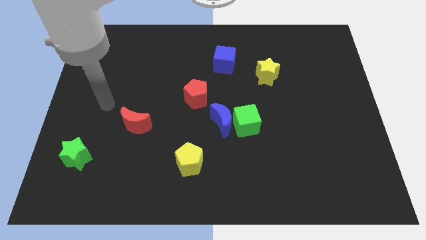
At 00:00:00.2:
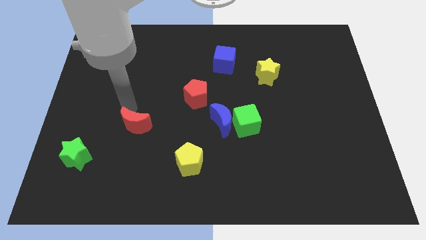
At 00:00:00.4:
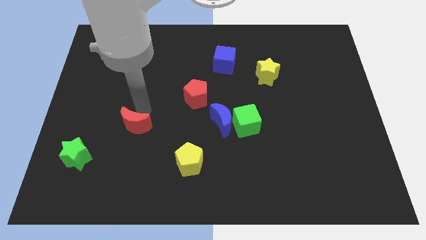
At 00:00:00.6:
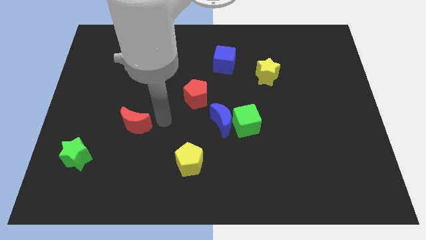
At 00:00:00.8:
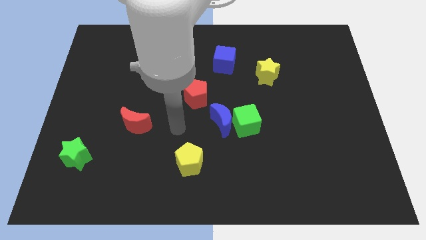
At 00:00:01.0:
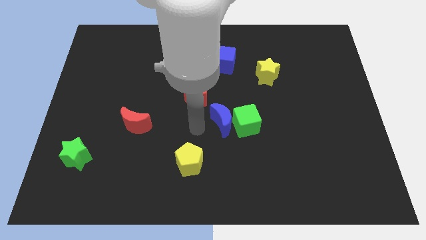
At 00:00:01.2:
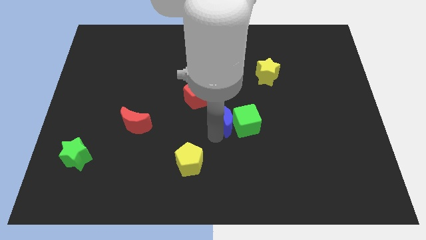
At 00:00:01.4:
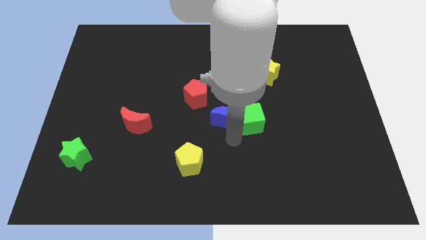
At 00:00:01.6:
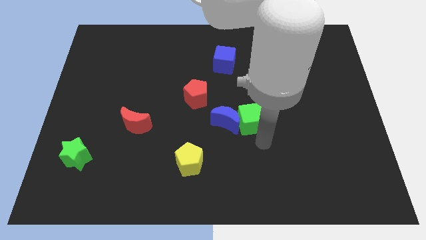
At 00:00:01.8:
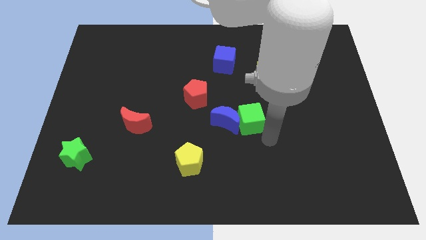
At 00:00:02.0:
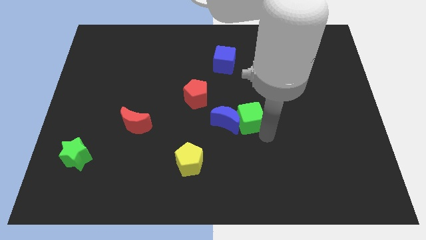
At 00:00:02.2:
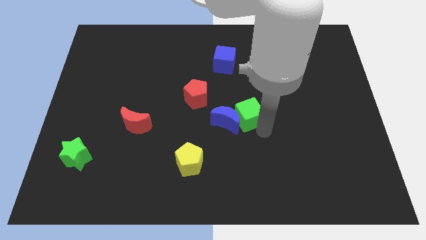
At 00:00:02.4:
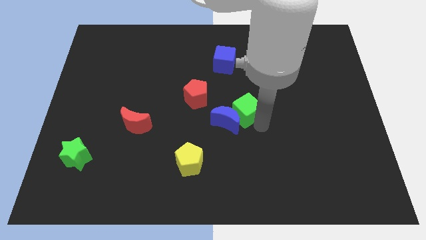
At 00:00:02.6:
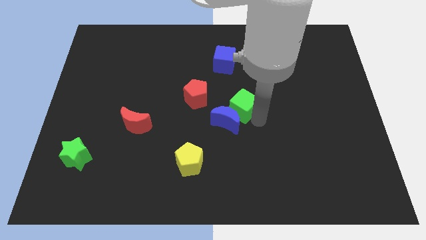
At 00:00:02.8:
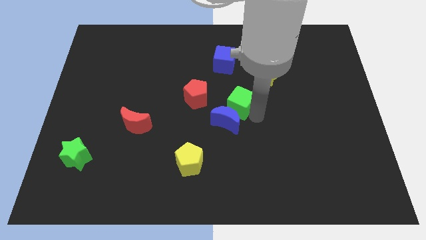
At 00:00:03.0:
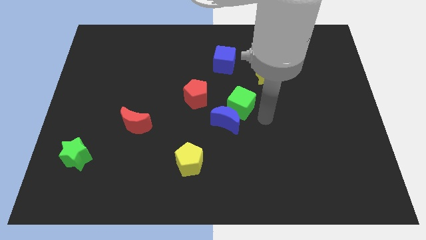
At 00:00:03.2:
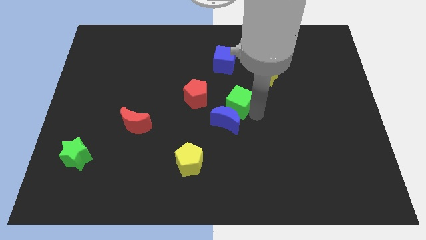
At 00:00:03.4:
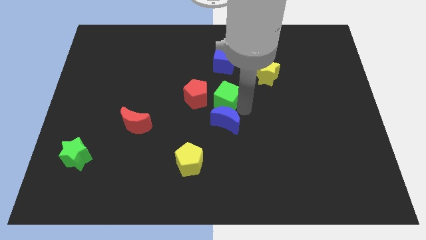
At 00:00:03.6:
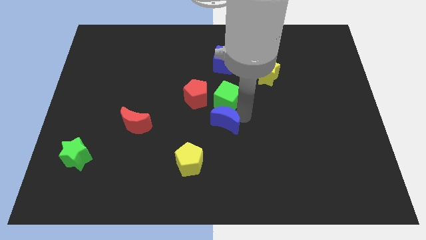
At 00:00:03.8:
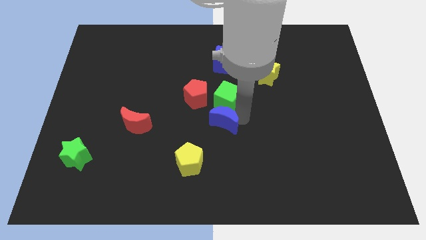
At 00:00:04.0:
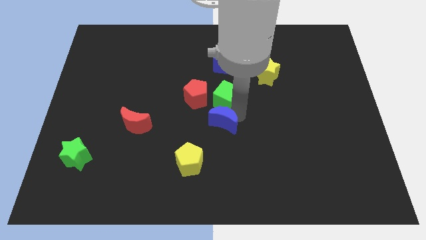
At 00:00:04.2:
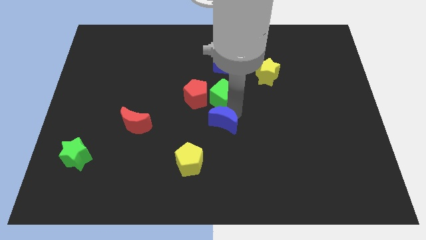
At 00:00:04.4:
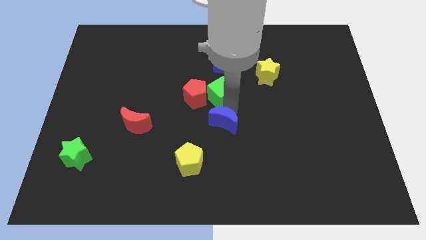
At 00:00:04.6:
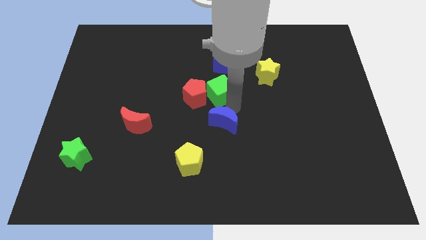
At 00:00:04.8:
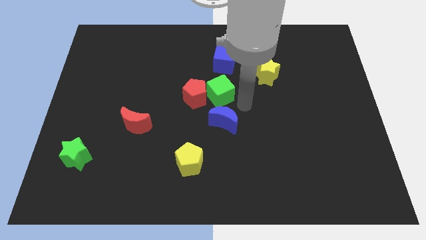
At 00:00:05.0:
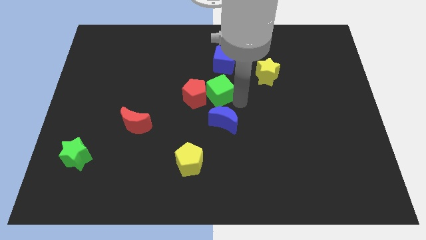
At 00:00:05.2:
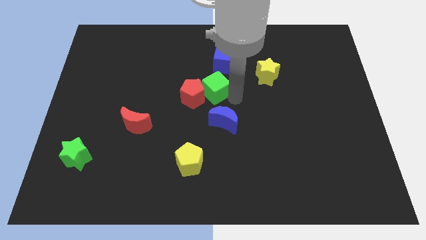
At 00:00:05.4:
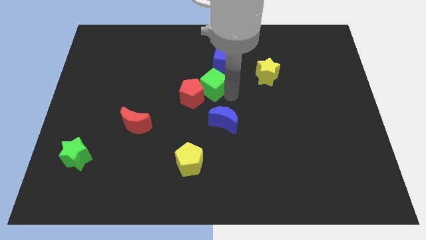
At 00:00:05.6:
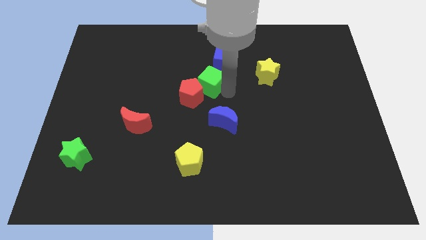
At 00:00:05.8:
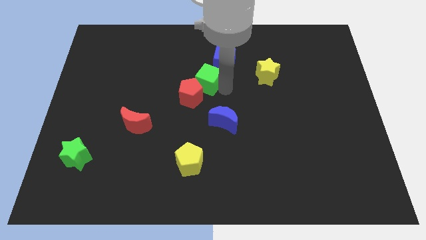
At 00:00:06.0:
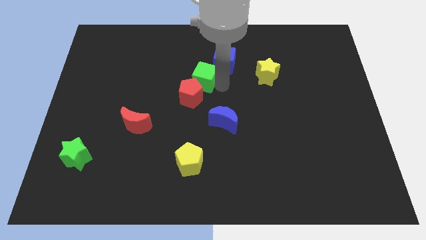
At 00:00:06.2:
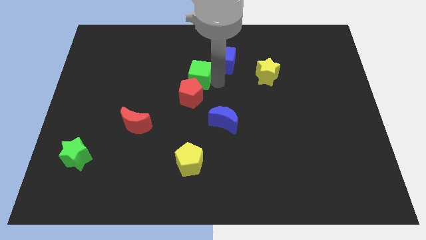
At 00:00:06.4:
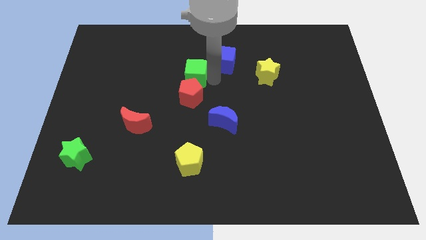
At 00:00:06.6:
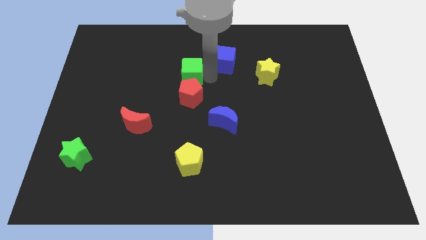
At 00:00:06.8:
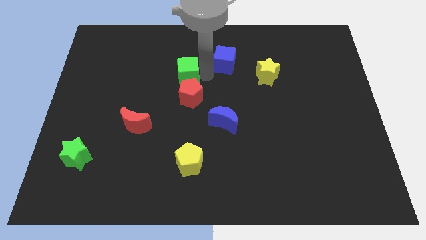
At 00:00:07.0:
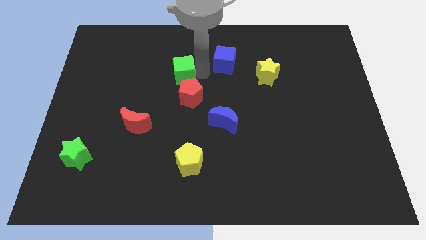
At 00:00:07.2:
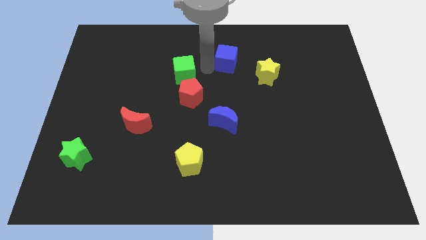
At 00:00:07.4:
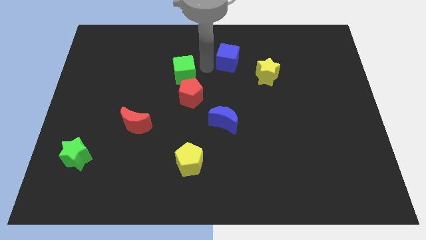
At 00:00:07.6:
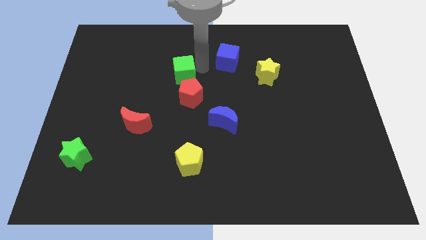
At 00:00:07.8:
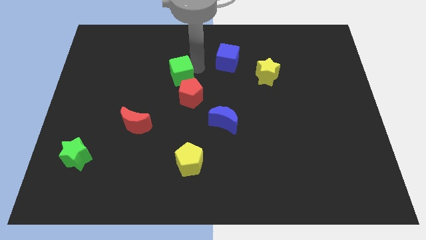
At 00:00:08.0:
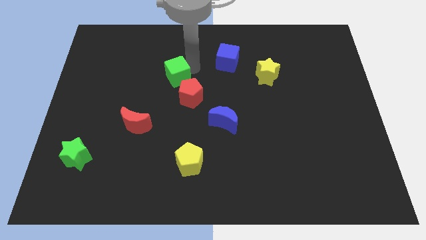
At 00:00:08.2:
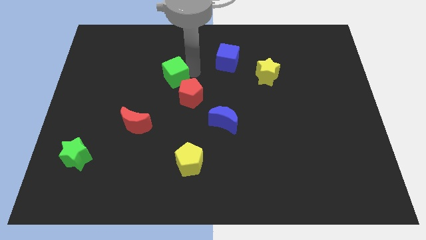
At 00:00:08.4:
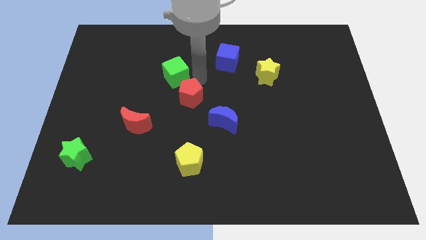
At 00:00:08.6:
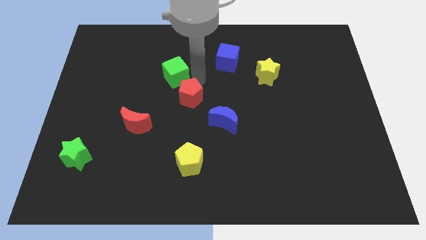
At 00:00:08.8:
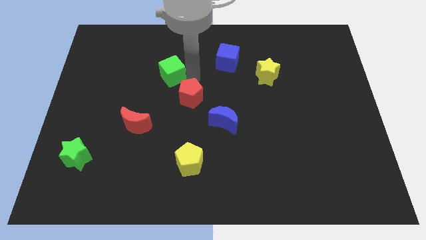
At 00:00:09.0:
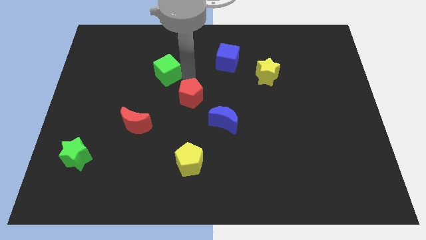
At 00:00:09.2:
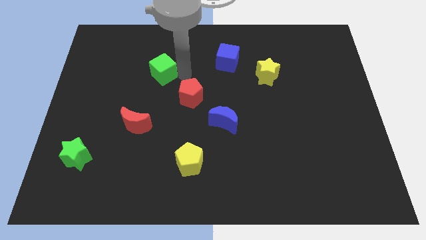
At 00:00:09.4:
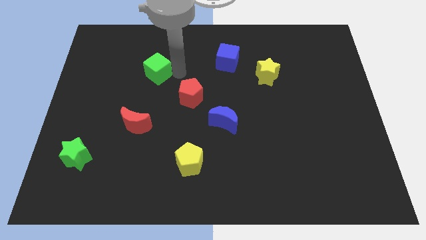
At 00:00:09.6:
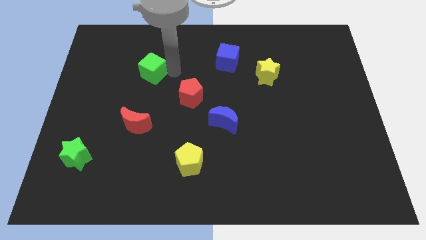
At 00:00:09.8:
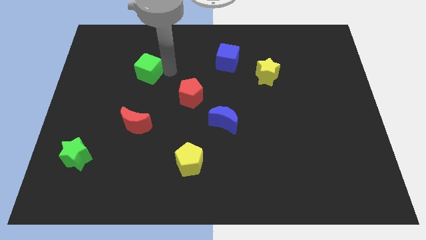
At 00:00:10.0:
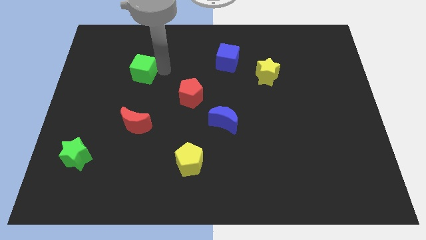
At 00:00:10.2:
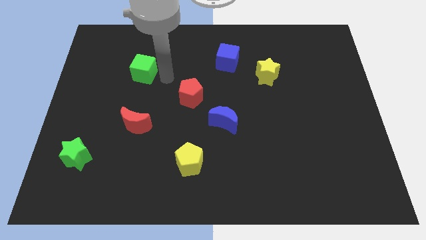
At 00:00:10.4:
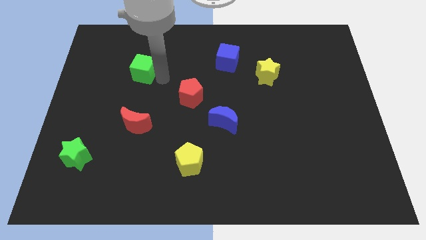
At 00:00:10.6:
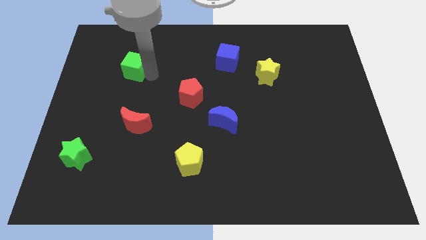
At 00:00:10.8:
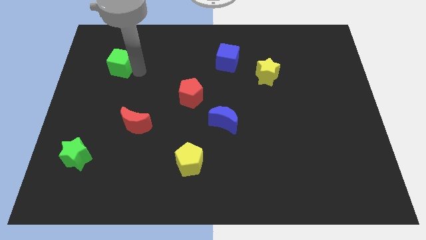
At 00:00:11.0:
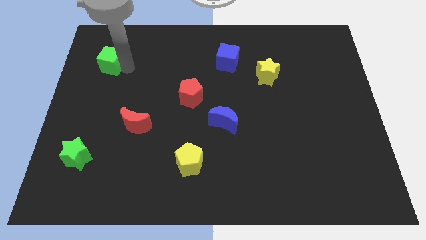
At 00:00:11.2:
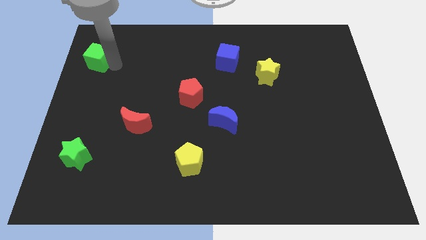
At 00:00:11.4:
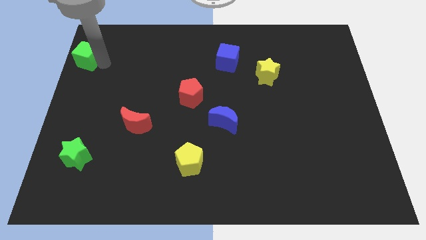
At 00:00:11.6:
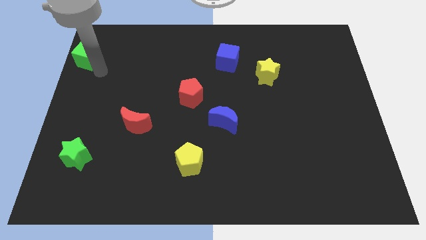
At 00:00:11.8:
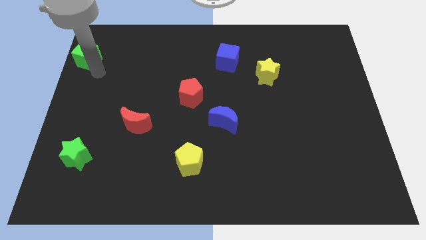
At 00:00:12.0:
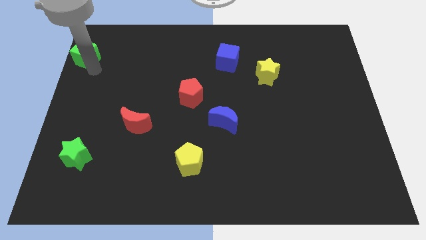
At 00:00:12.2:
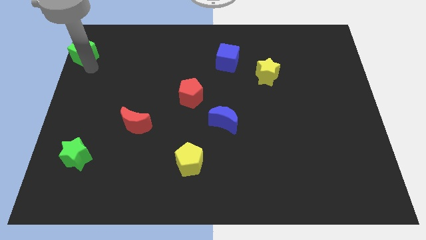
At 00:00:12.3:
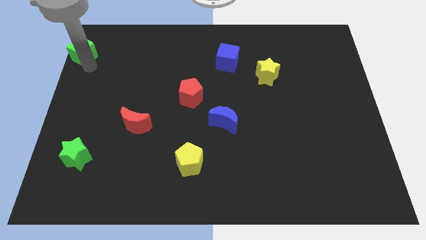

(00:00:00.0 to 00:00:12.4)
put the green cube to the upper left corner

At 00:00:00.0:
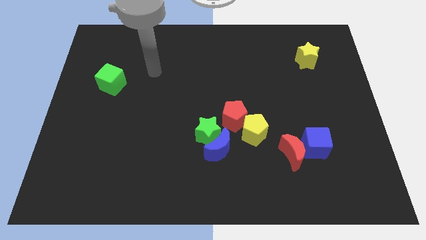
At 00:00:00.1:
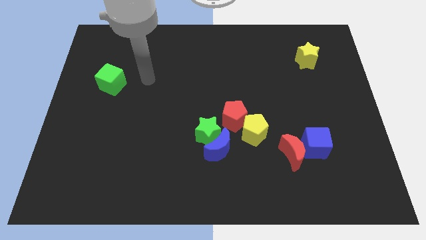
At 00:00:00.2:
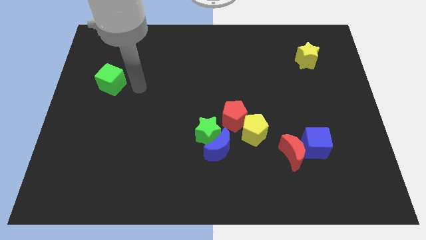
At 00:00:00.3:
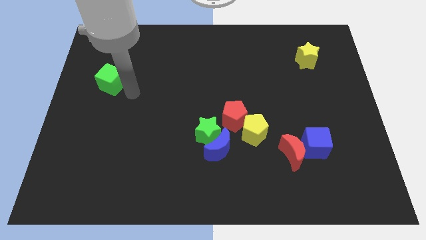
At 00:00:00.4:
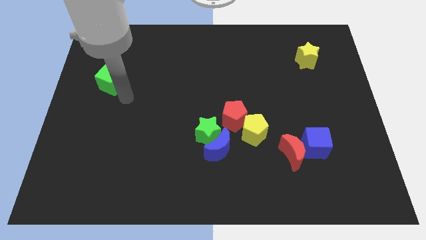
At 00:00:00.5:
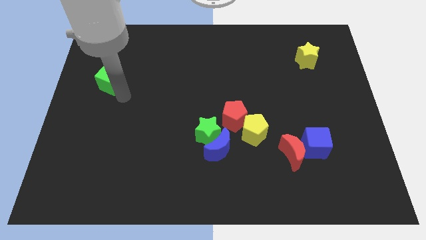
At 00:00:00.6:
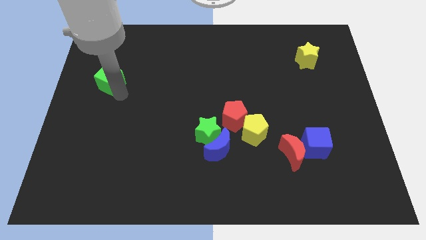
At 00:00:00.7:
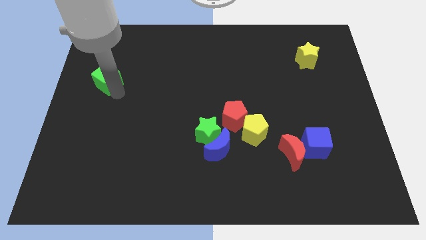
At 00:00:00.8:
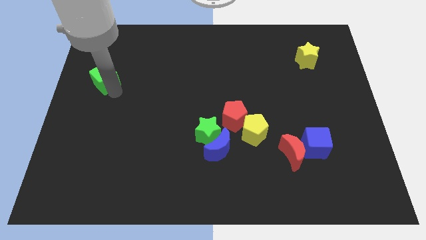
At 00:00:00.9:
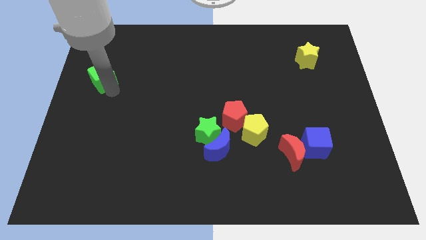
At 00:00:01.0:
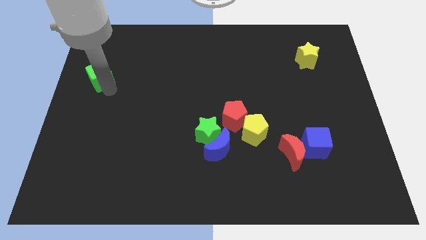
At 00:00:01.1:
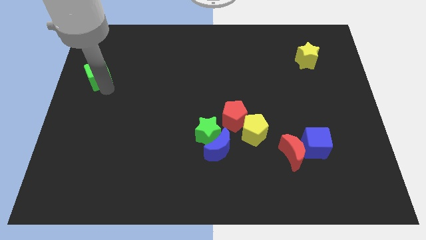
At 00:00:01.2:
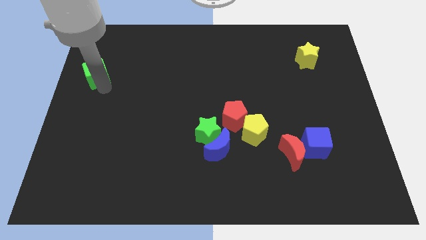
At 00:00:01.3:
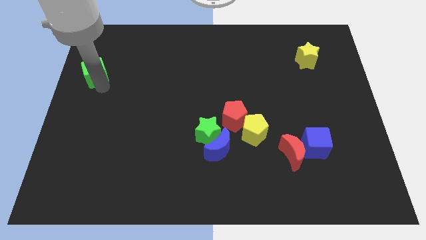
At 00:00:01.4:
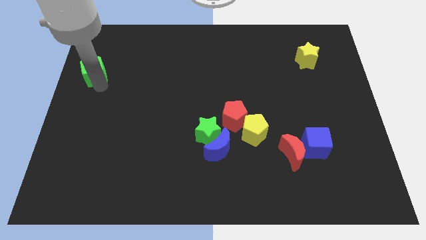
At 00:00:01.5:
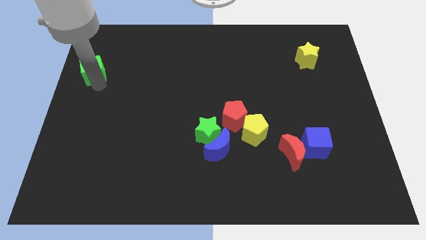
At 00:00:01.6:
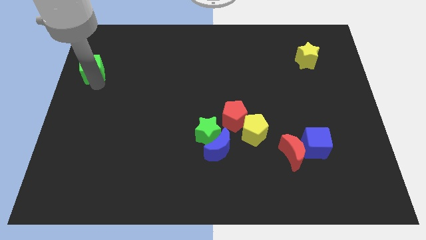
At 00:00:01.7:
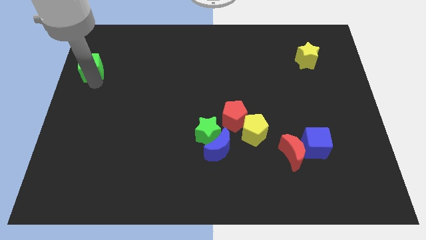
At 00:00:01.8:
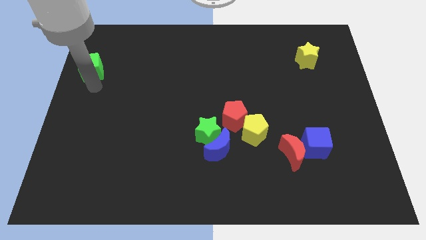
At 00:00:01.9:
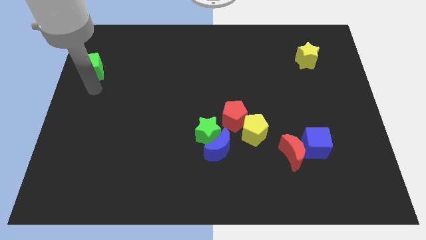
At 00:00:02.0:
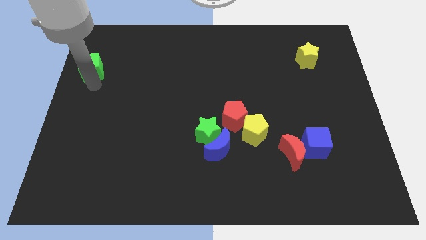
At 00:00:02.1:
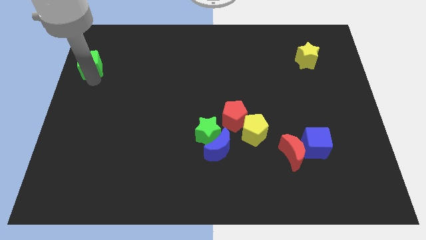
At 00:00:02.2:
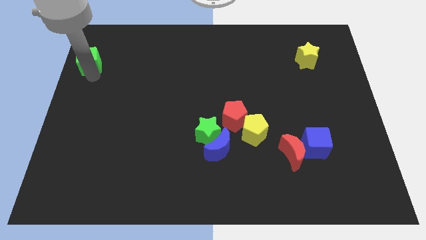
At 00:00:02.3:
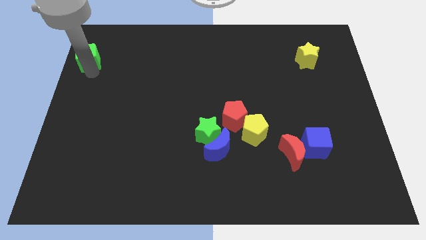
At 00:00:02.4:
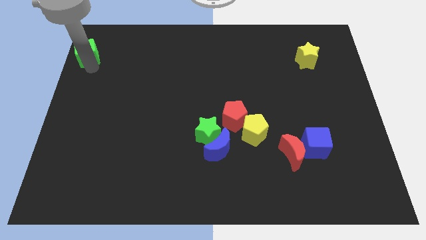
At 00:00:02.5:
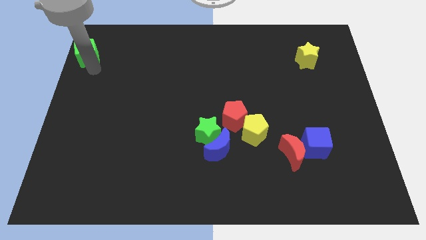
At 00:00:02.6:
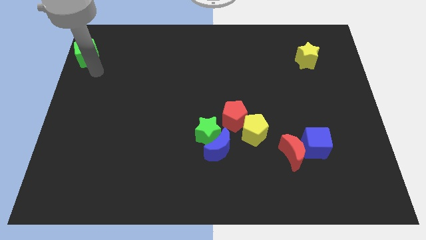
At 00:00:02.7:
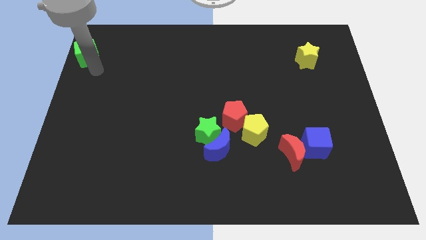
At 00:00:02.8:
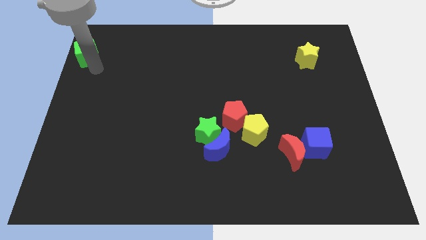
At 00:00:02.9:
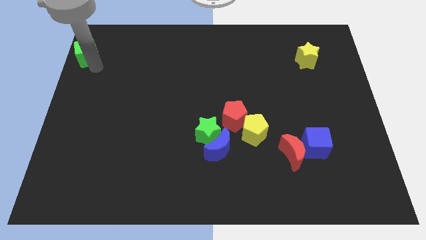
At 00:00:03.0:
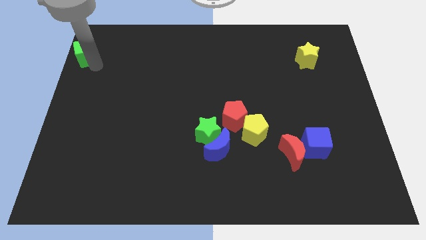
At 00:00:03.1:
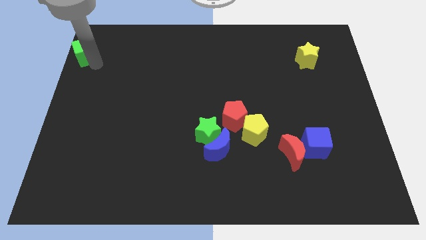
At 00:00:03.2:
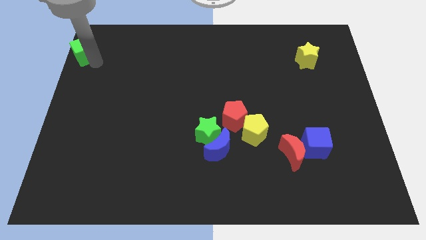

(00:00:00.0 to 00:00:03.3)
slide the green cube to the top left
